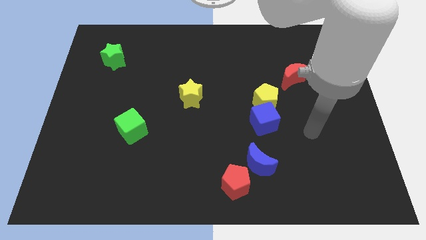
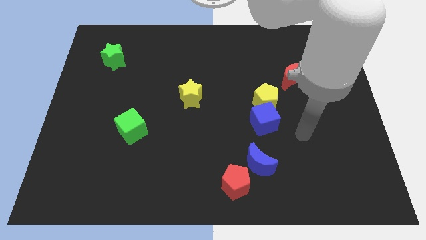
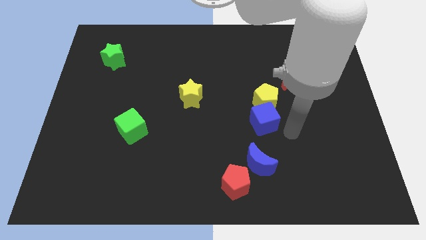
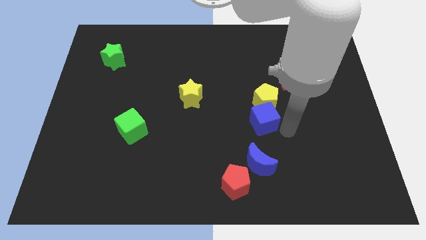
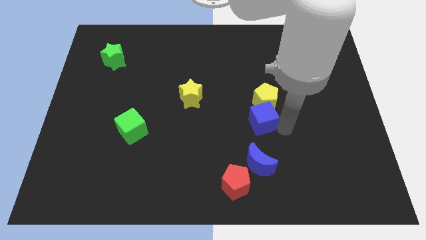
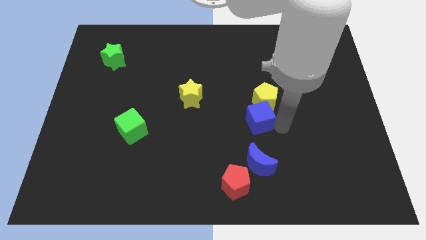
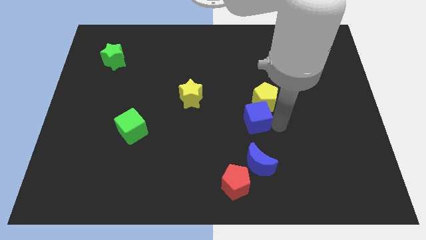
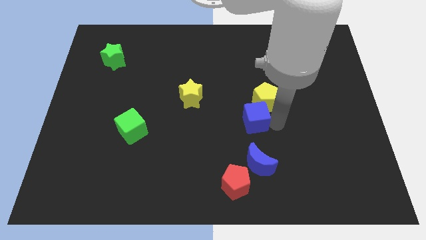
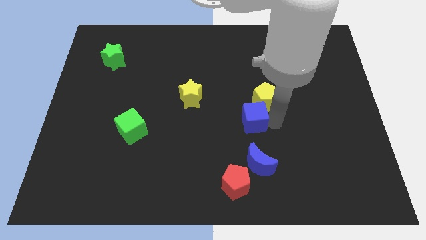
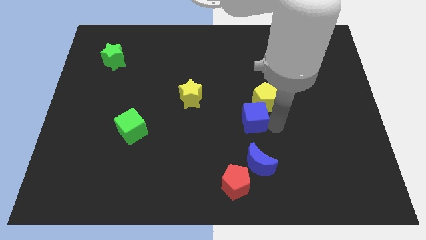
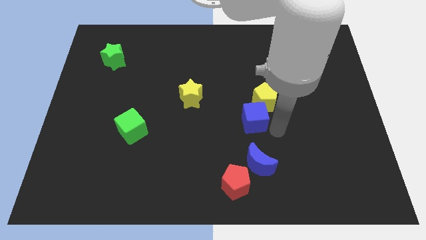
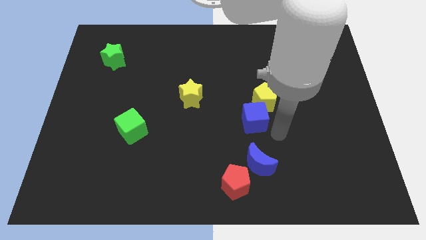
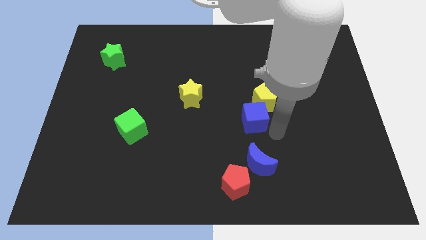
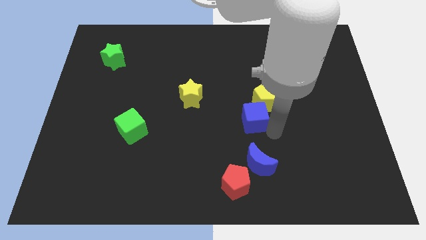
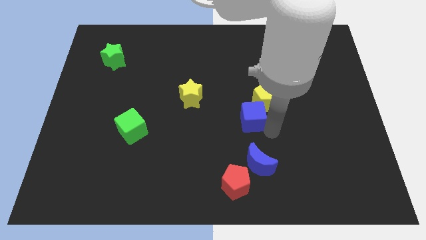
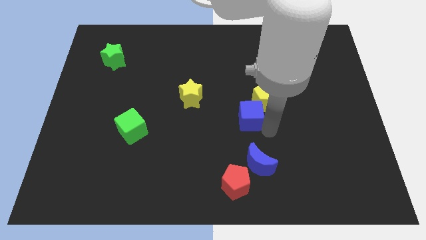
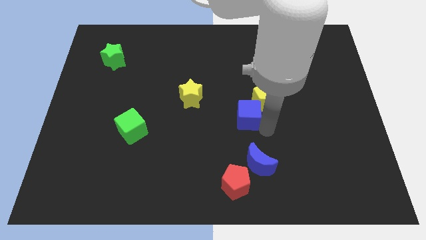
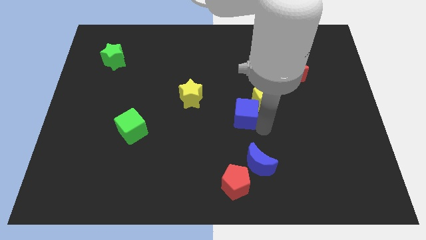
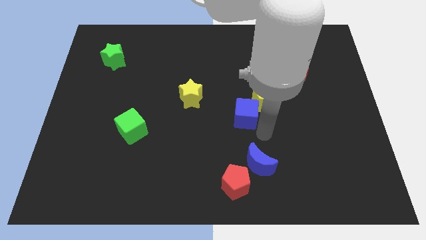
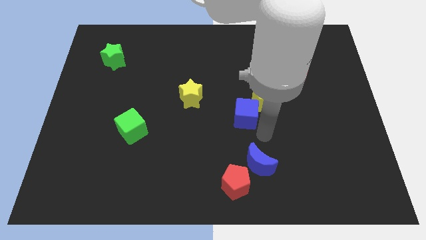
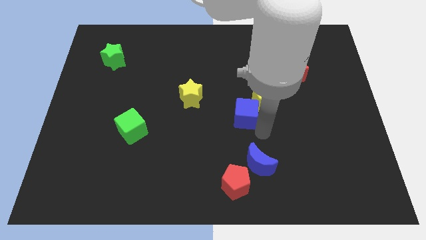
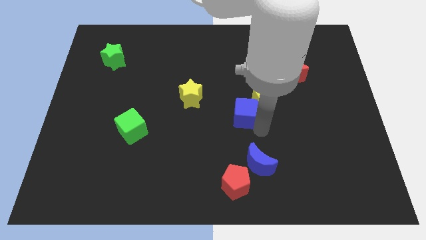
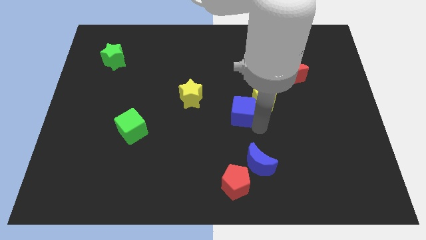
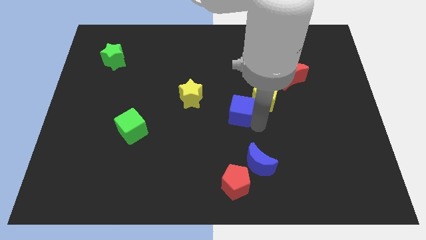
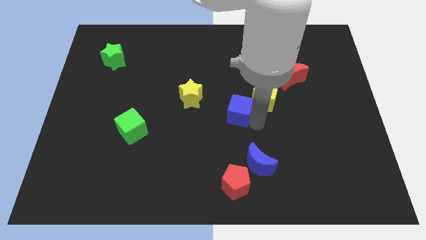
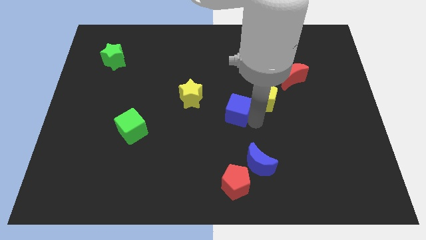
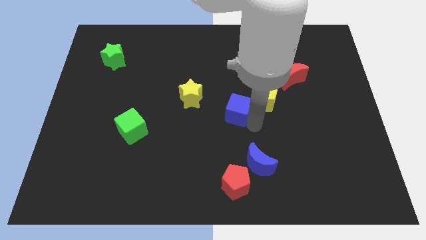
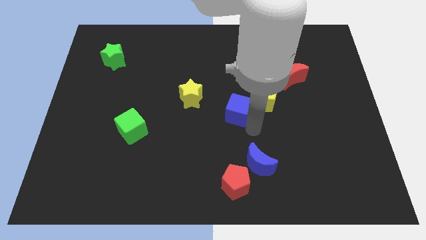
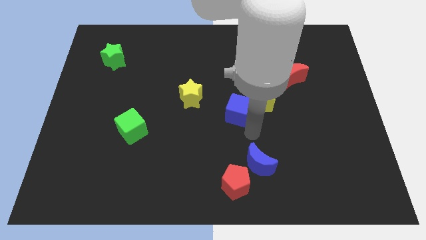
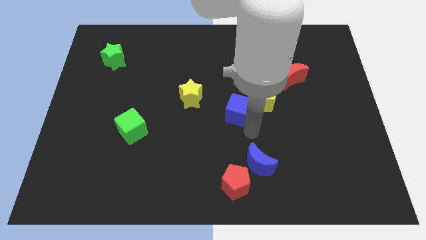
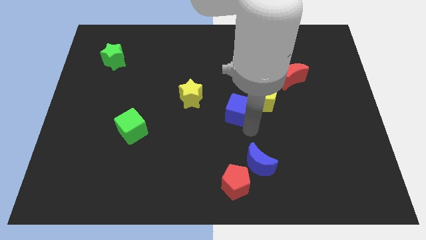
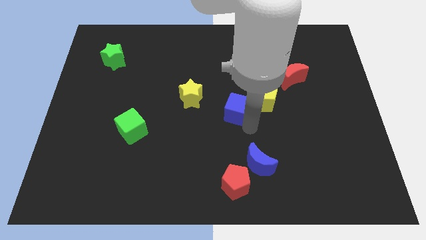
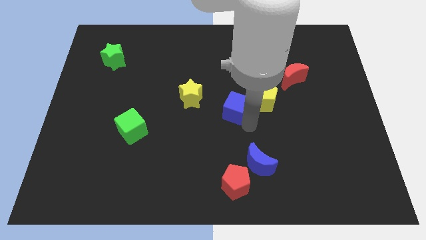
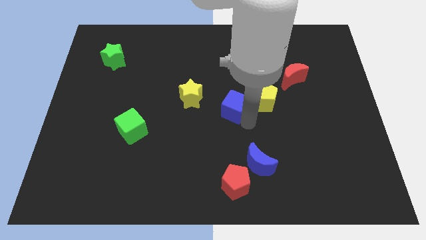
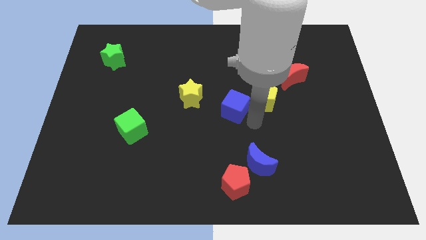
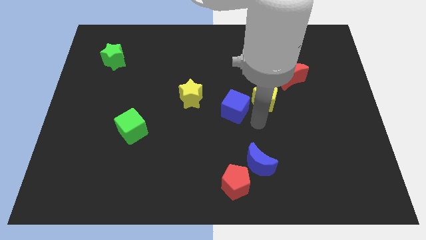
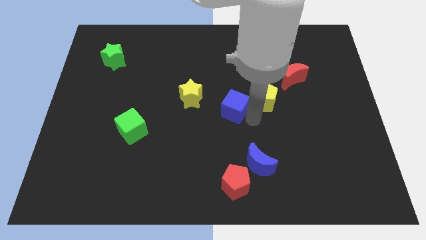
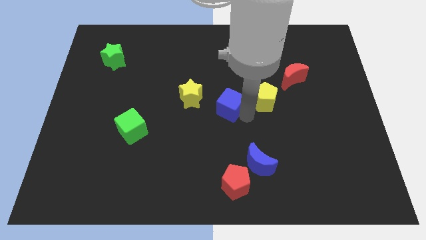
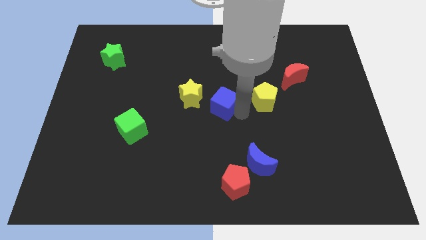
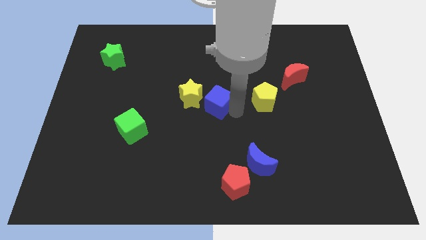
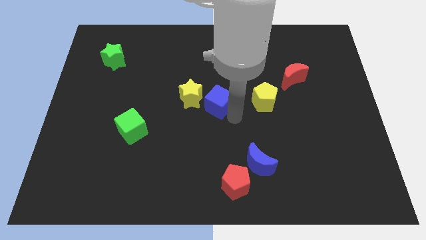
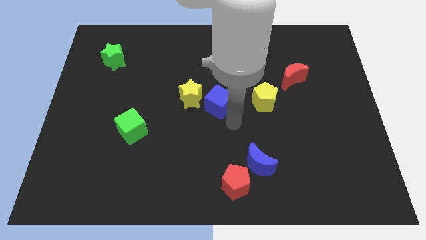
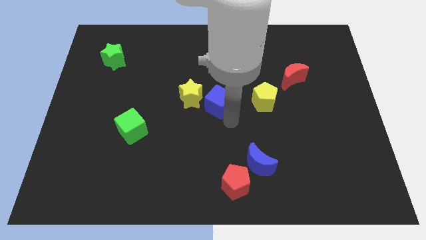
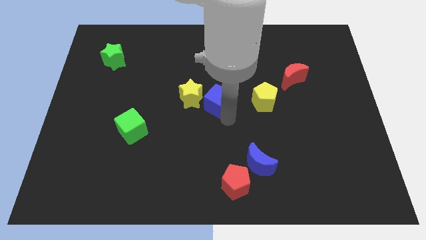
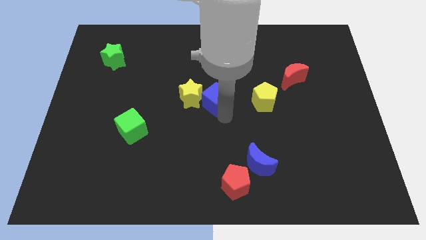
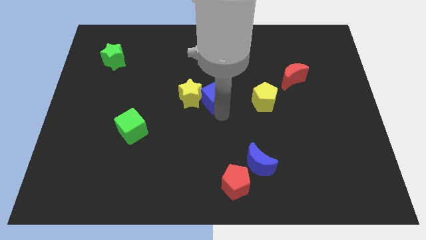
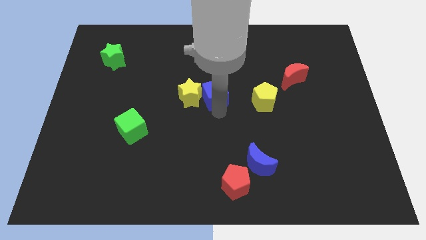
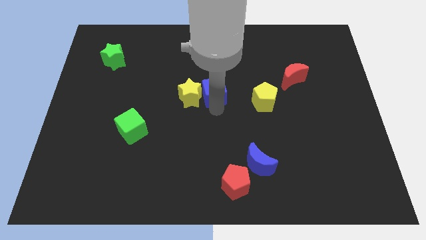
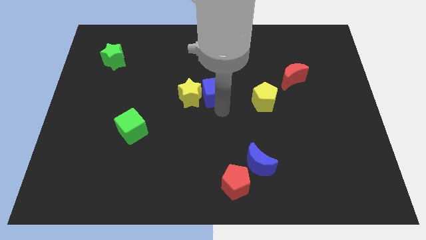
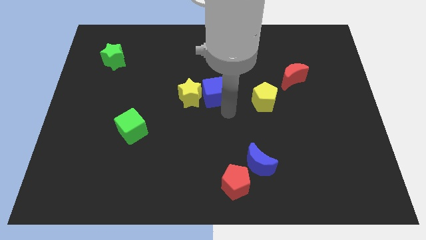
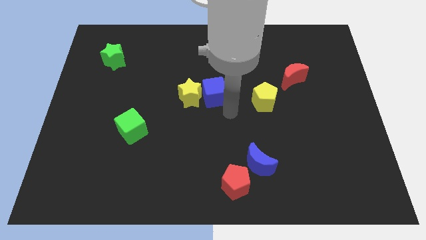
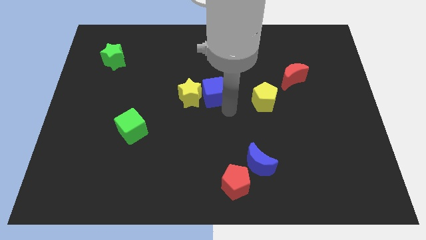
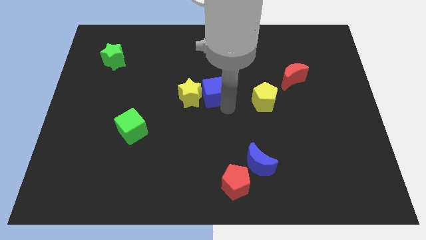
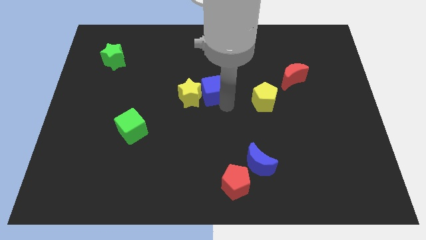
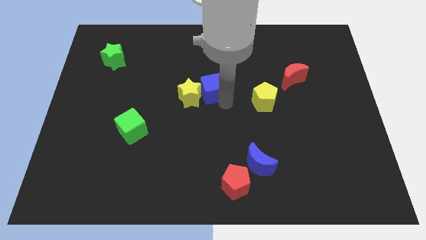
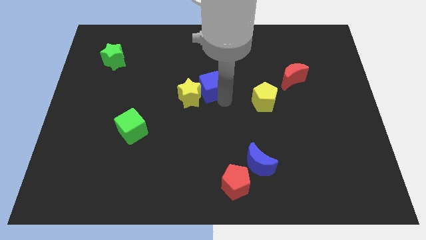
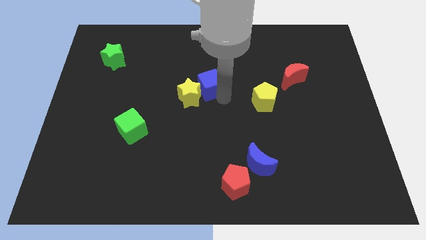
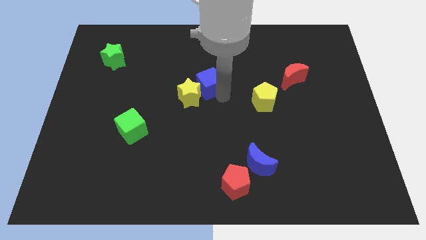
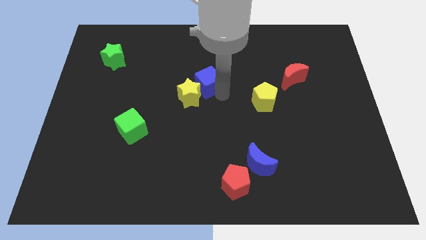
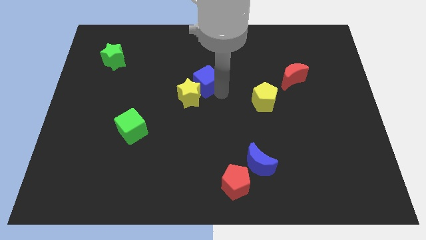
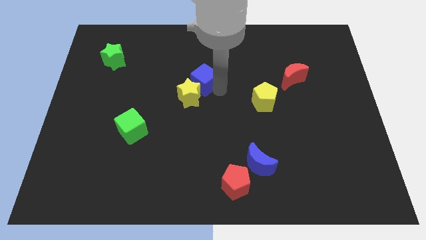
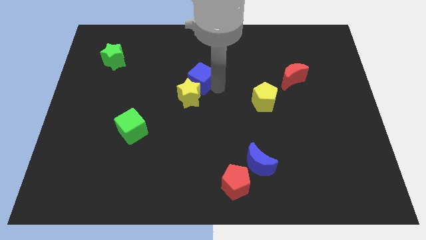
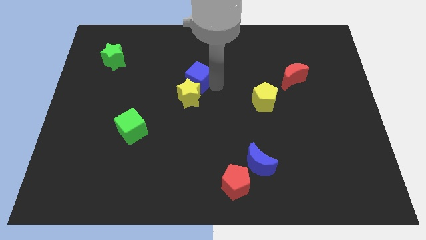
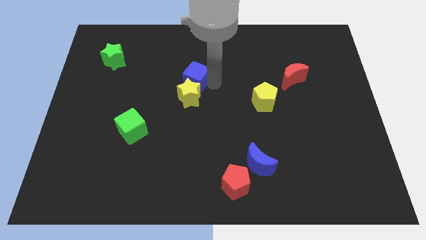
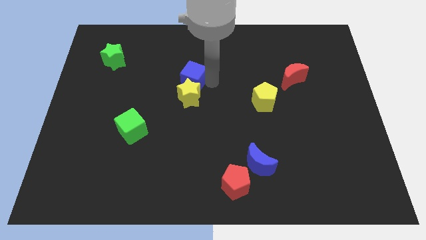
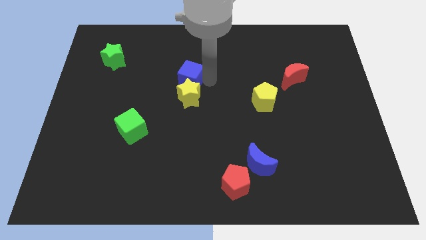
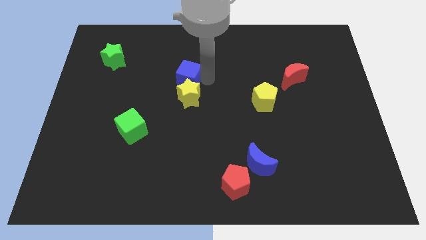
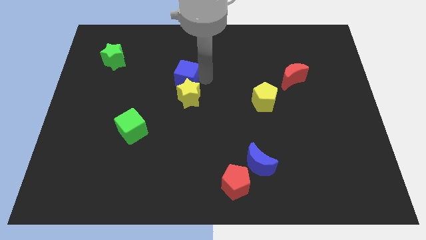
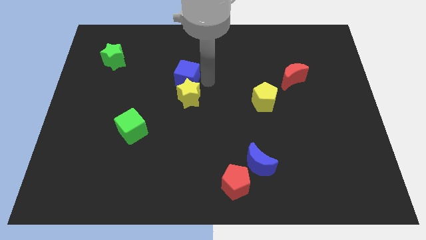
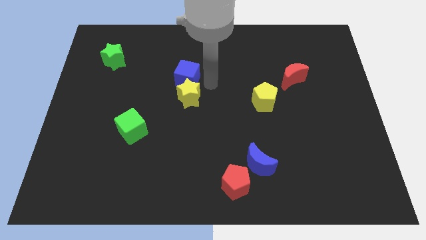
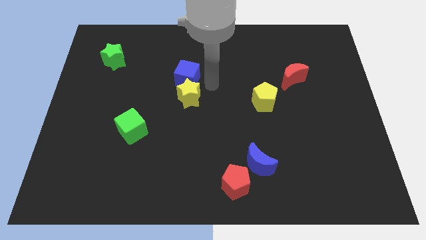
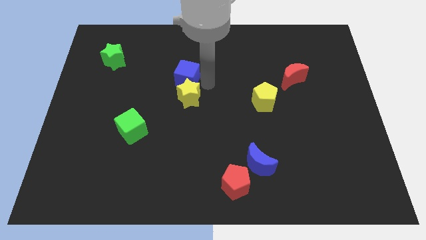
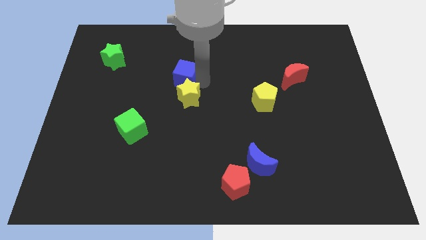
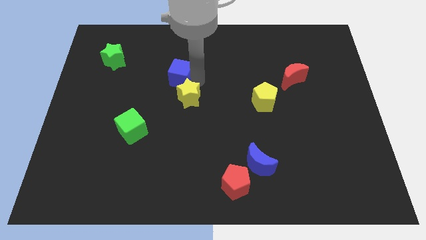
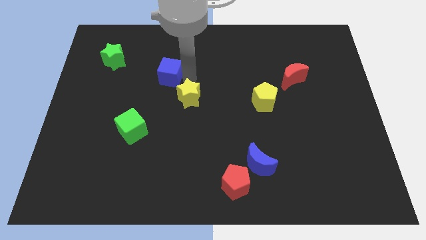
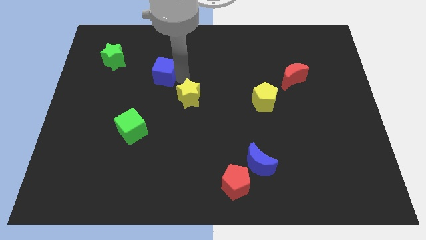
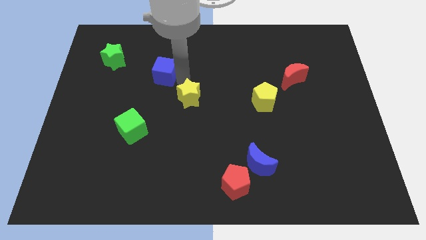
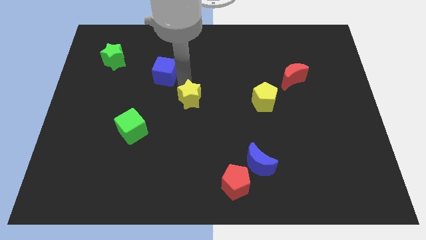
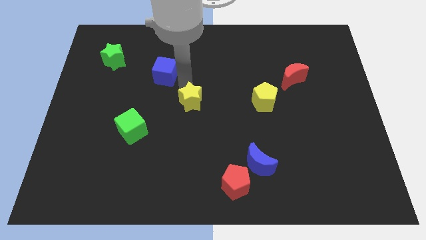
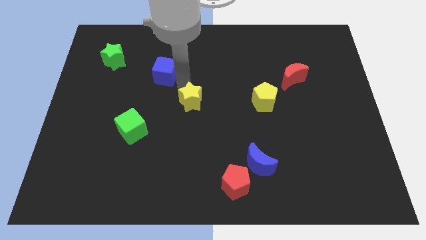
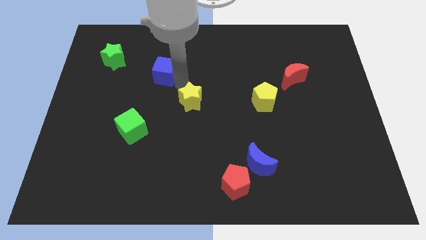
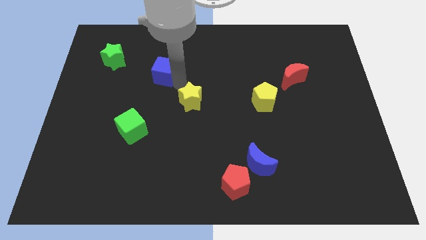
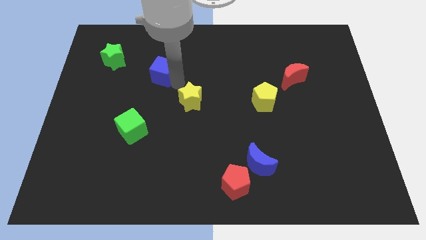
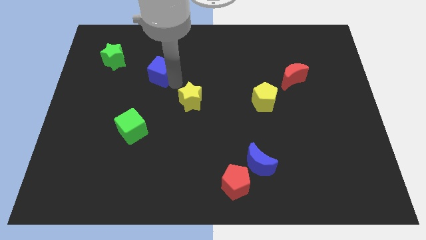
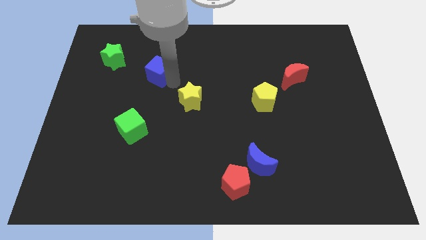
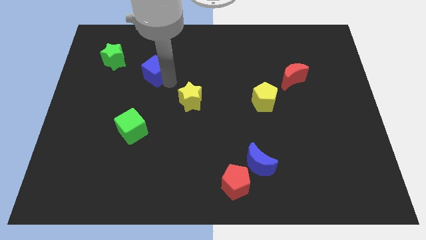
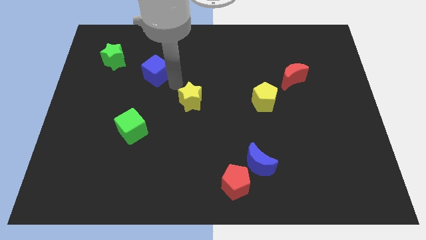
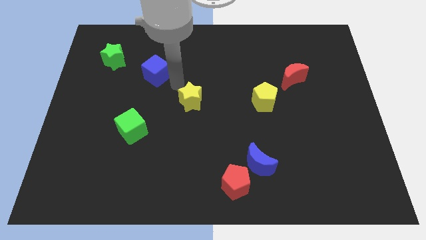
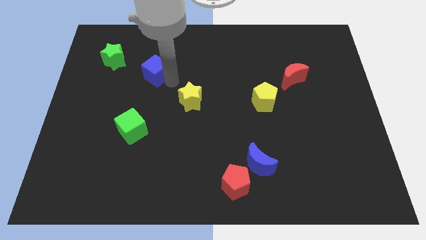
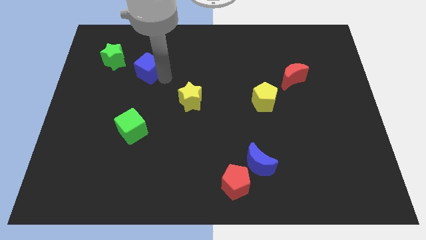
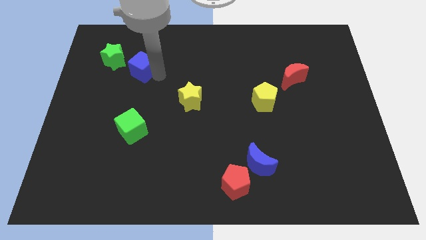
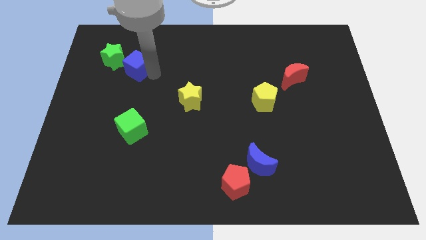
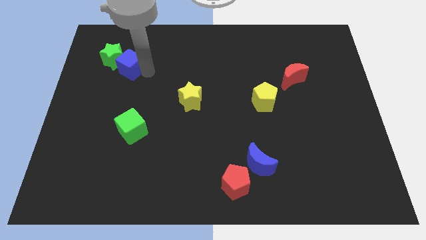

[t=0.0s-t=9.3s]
push the blue cube next to the green star
